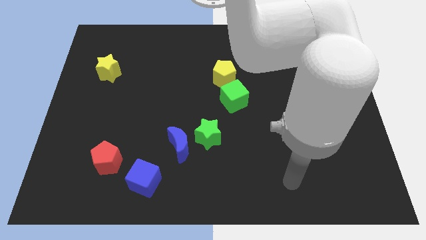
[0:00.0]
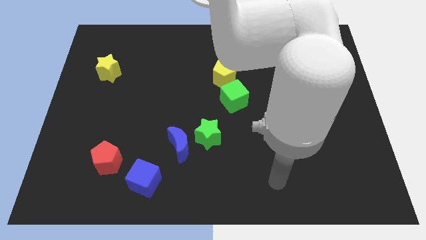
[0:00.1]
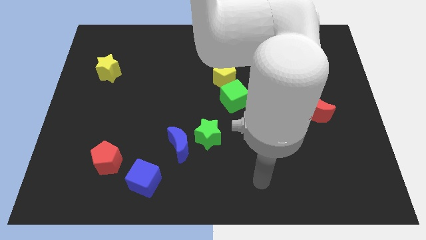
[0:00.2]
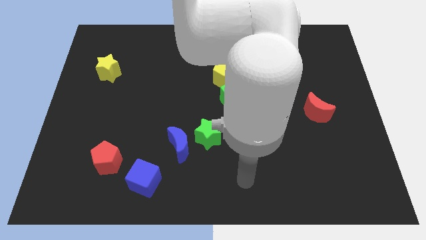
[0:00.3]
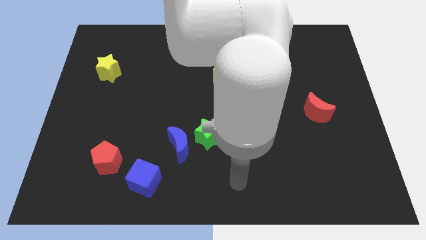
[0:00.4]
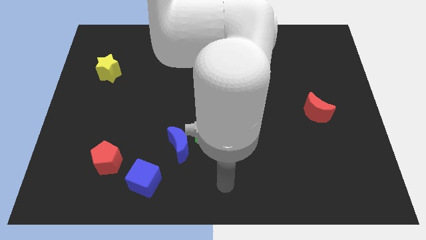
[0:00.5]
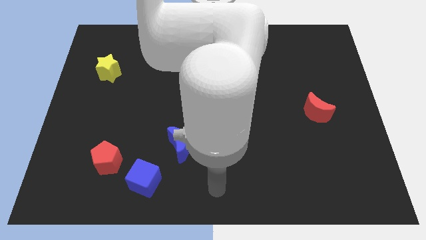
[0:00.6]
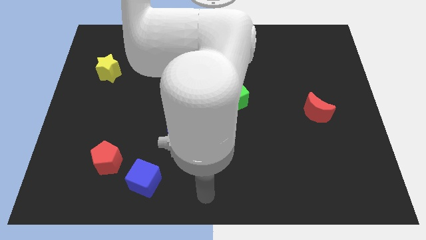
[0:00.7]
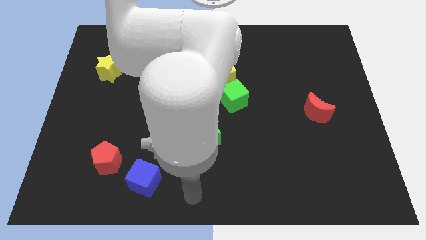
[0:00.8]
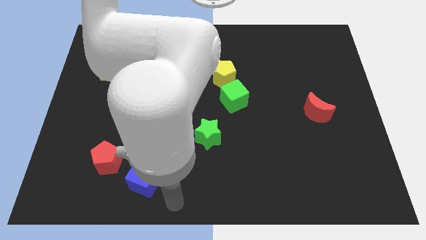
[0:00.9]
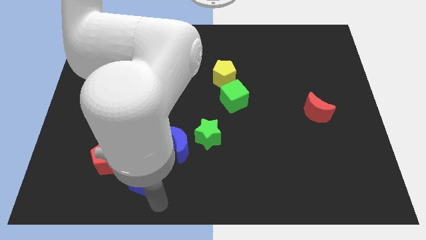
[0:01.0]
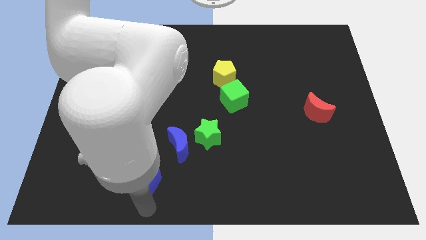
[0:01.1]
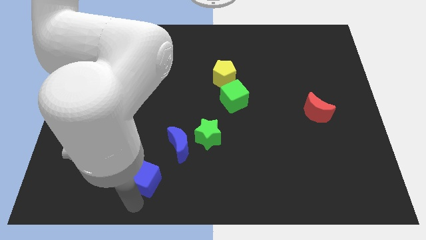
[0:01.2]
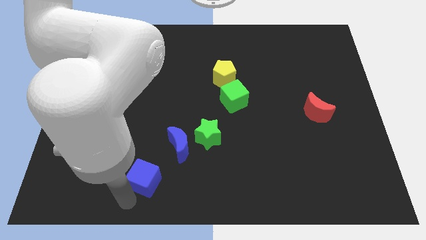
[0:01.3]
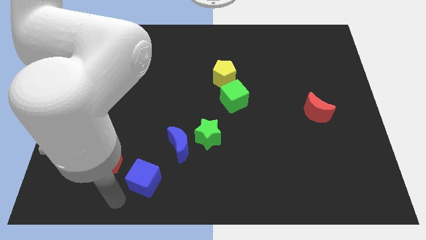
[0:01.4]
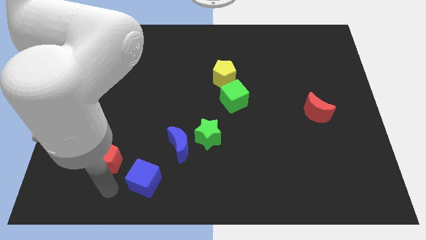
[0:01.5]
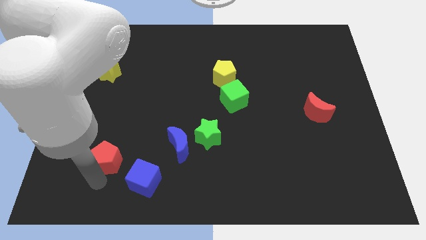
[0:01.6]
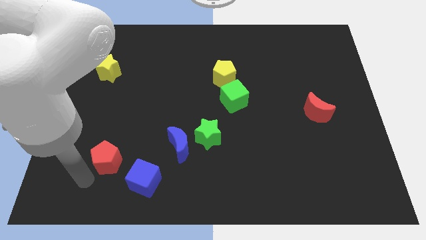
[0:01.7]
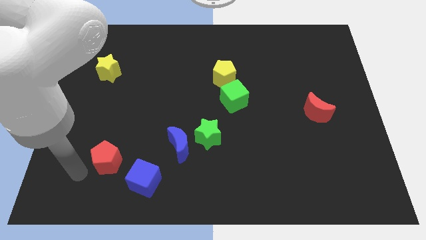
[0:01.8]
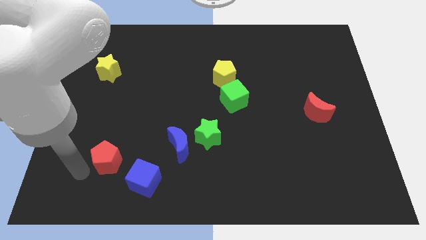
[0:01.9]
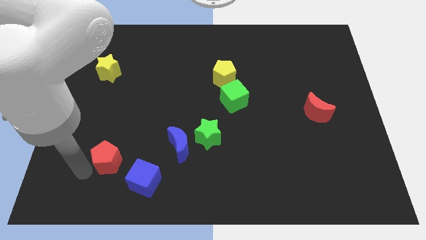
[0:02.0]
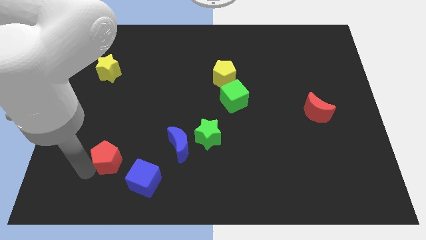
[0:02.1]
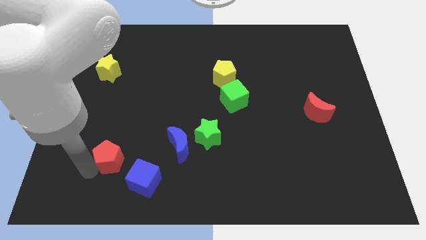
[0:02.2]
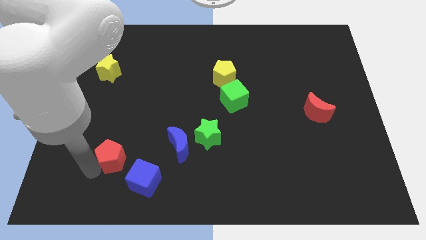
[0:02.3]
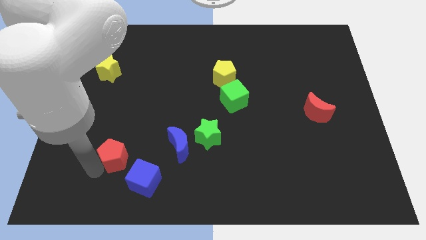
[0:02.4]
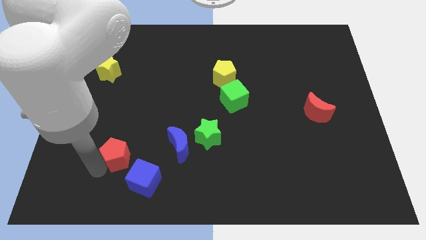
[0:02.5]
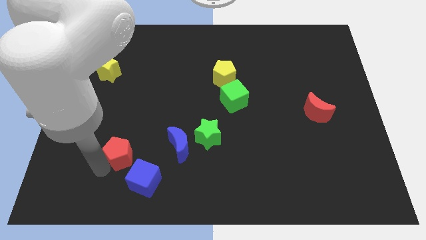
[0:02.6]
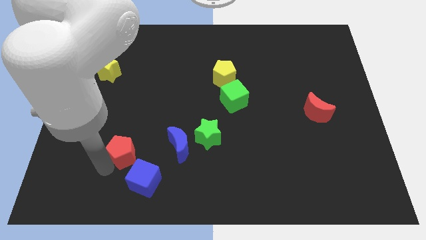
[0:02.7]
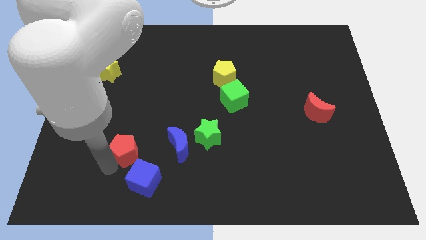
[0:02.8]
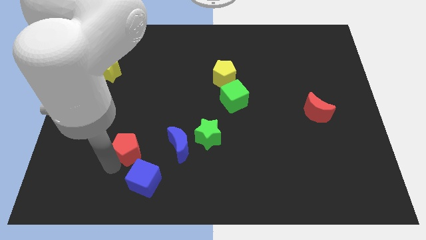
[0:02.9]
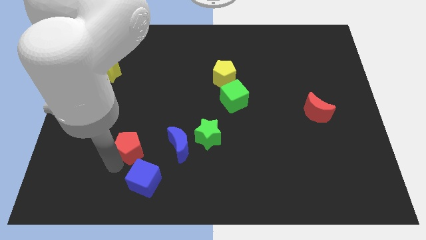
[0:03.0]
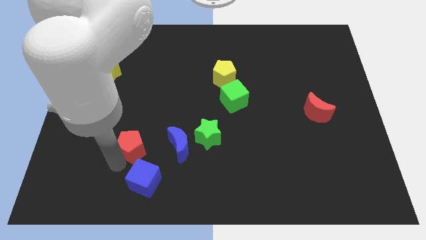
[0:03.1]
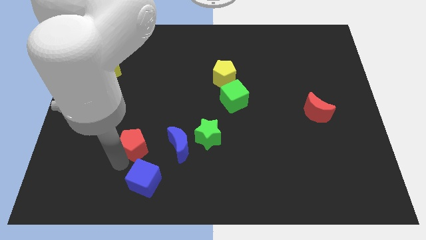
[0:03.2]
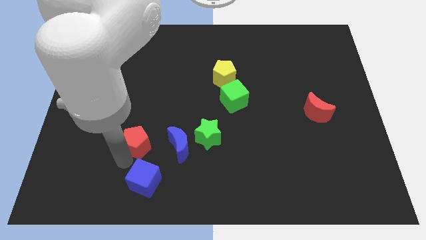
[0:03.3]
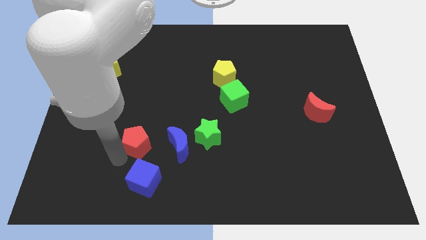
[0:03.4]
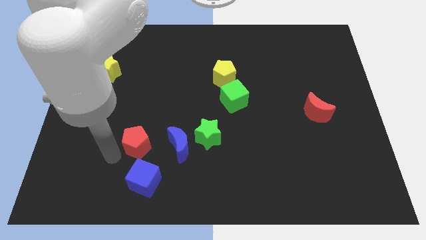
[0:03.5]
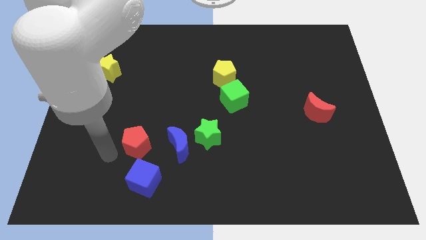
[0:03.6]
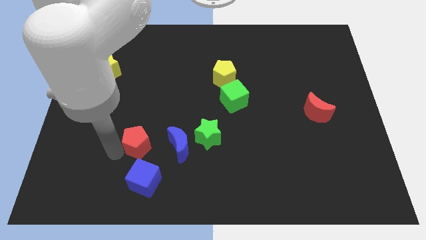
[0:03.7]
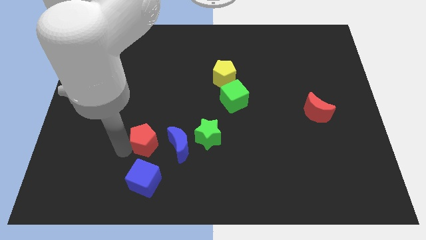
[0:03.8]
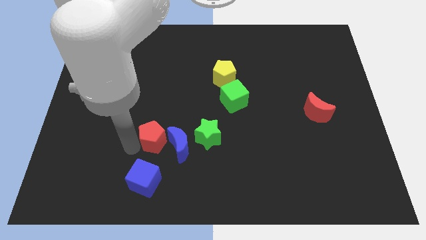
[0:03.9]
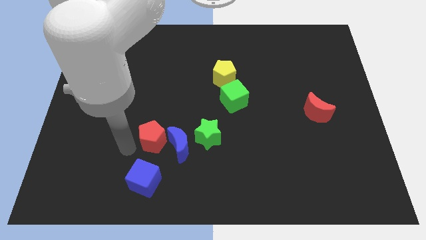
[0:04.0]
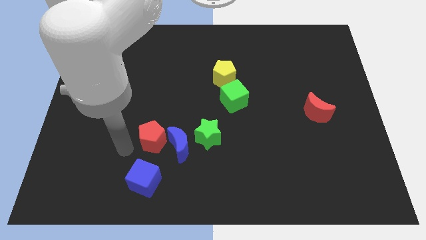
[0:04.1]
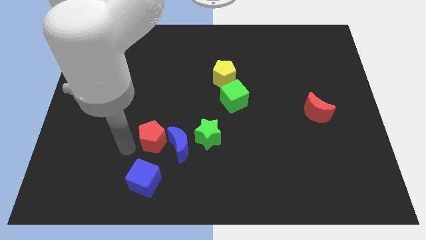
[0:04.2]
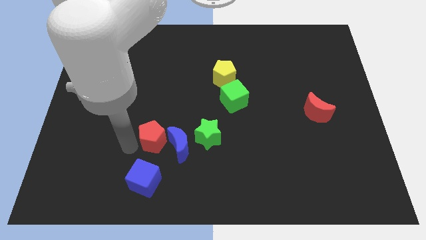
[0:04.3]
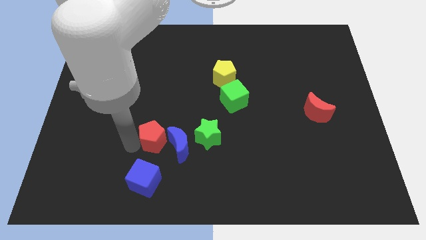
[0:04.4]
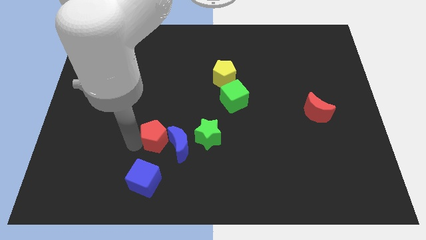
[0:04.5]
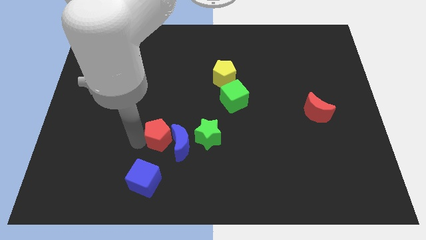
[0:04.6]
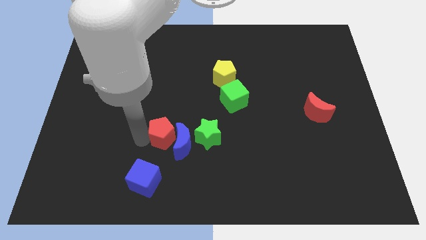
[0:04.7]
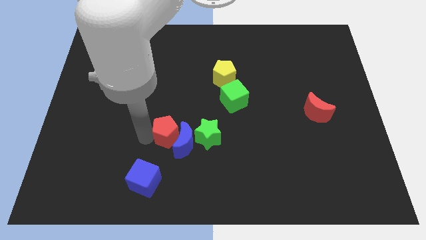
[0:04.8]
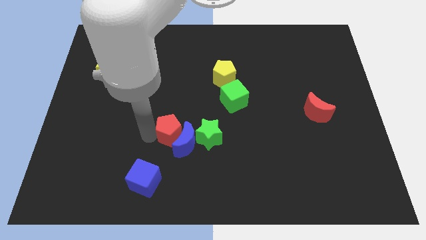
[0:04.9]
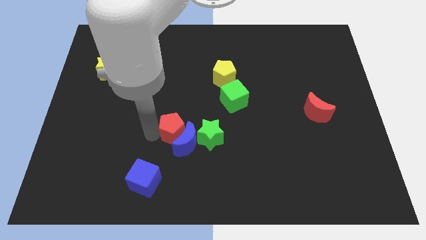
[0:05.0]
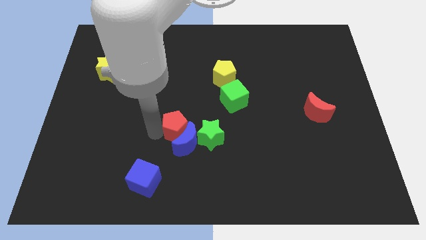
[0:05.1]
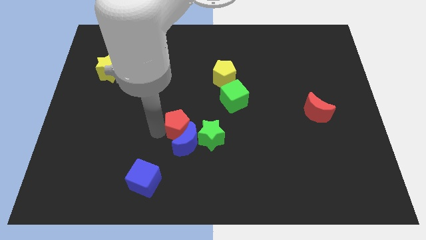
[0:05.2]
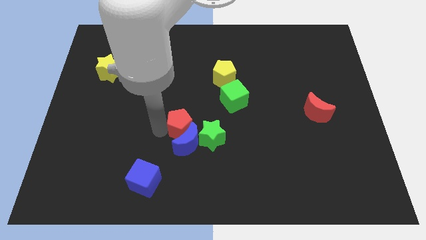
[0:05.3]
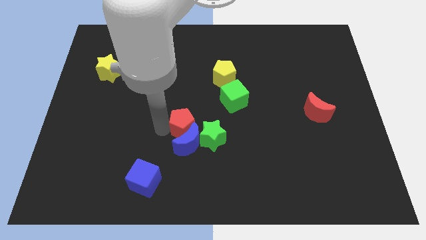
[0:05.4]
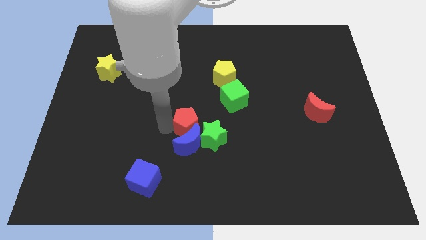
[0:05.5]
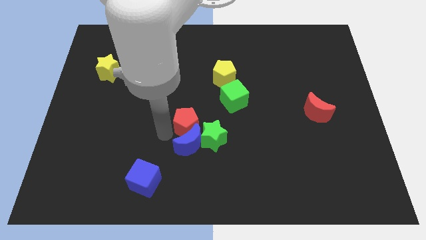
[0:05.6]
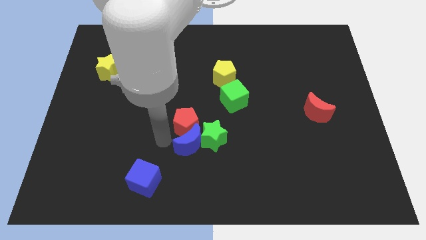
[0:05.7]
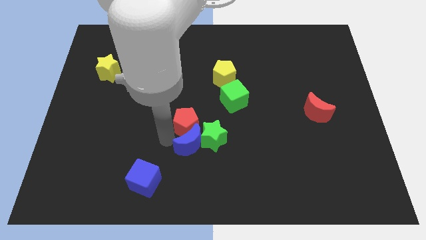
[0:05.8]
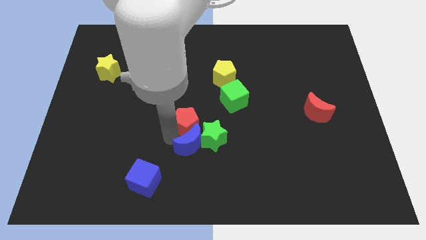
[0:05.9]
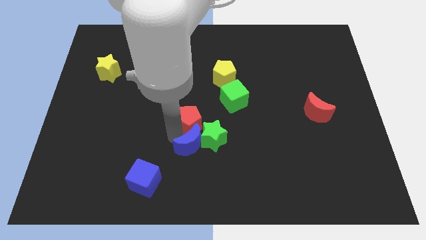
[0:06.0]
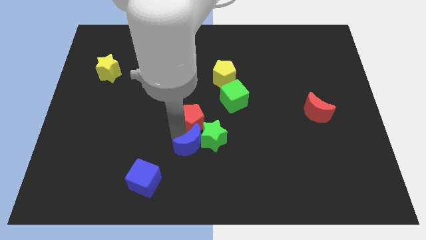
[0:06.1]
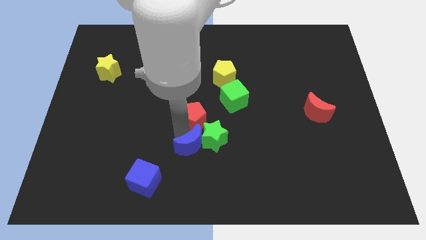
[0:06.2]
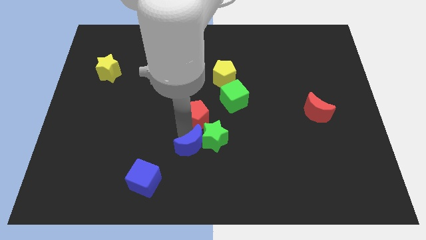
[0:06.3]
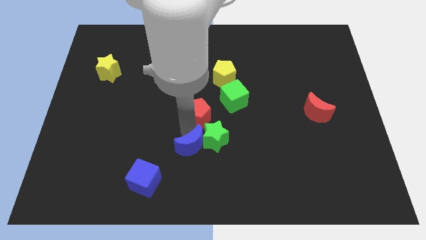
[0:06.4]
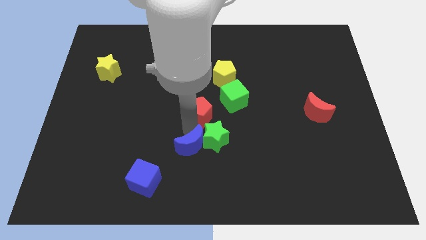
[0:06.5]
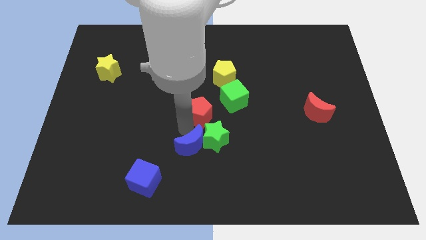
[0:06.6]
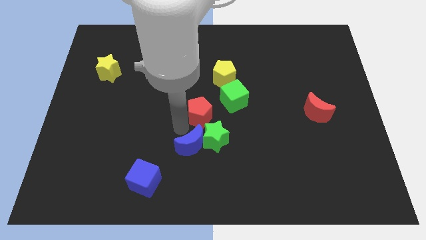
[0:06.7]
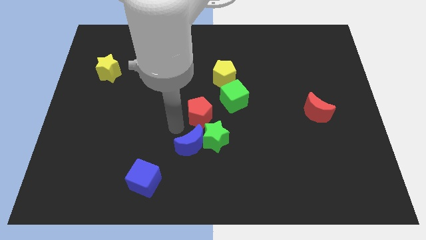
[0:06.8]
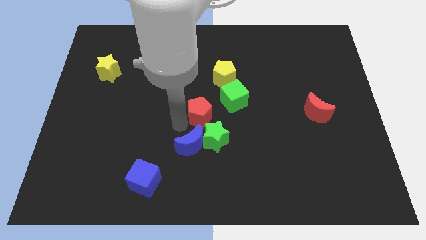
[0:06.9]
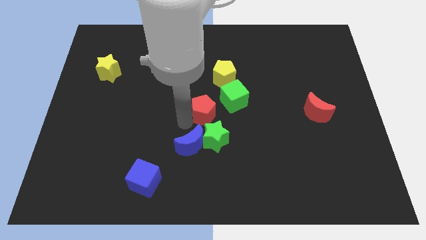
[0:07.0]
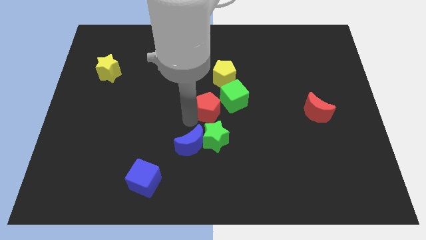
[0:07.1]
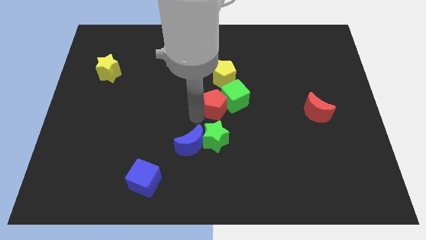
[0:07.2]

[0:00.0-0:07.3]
move the red pentagon next to the green cube
